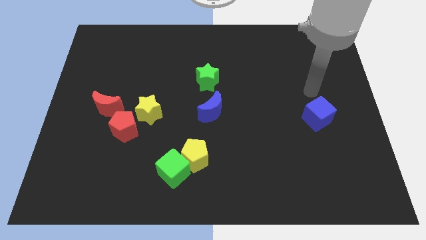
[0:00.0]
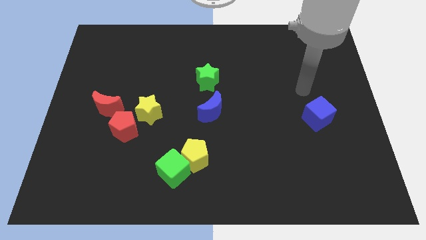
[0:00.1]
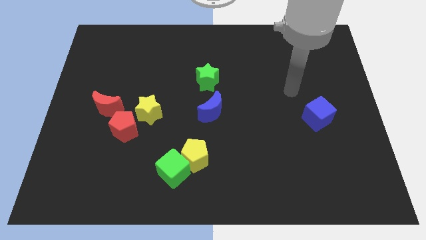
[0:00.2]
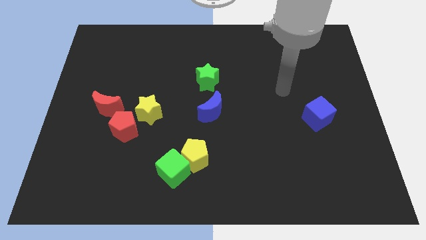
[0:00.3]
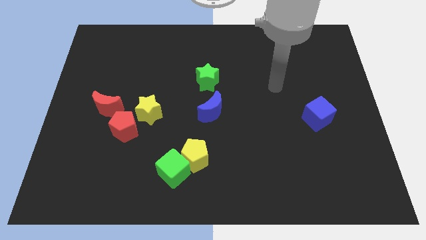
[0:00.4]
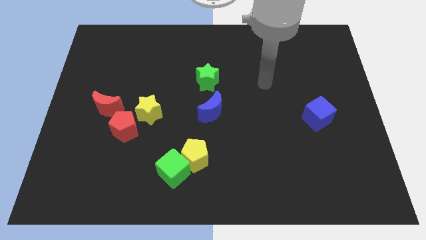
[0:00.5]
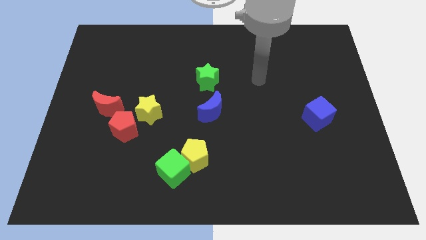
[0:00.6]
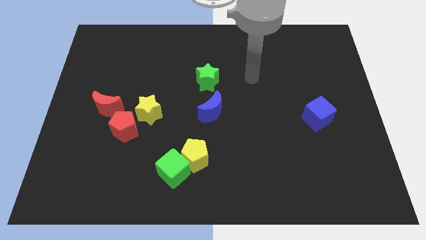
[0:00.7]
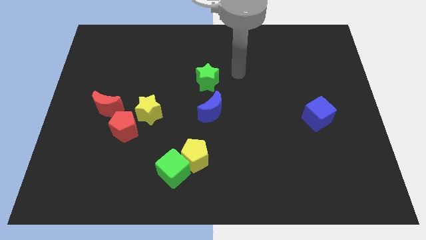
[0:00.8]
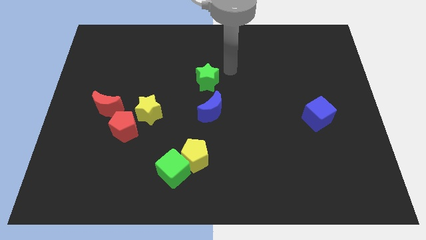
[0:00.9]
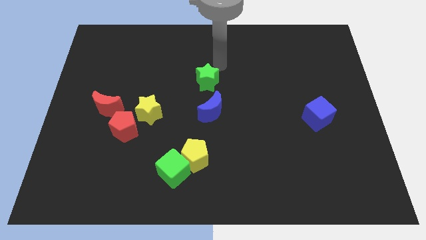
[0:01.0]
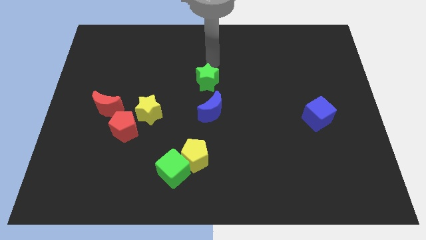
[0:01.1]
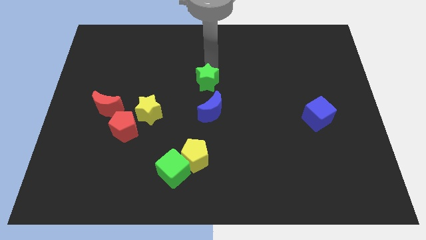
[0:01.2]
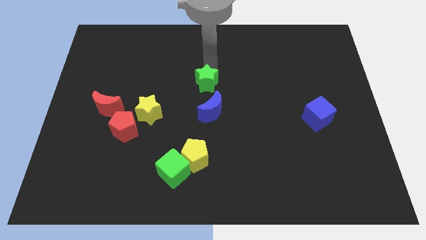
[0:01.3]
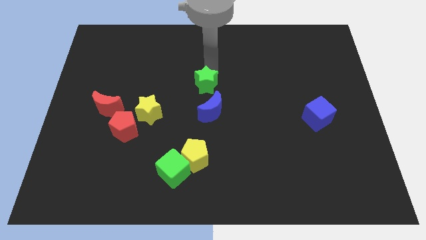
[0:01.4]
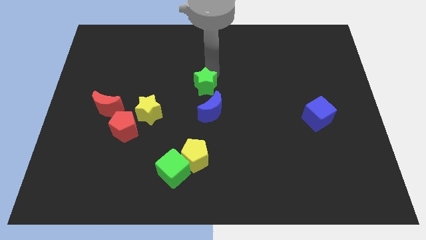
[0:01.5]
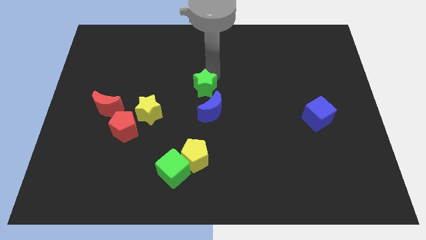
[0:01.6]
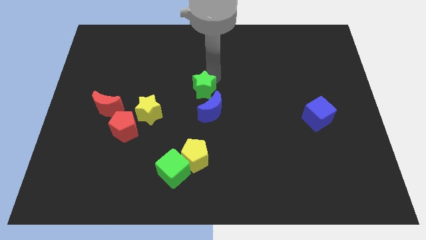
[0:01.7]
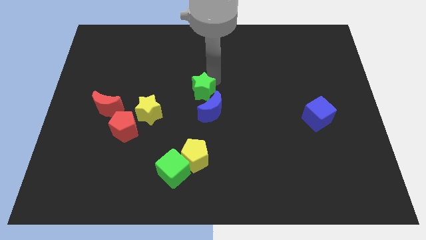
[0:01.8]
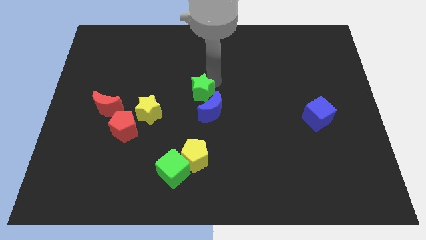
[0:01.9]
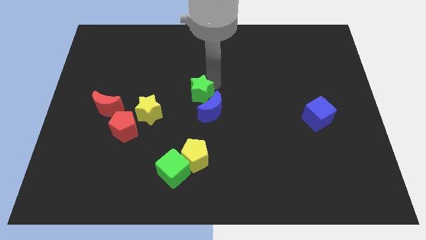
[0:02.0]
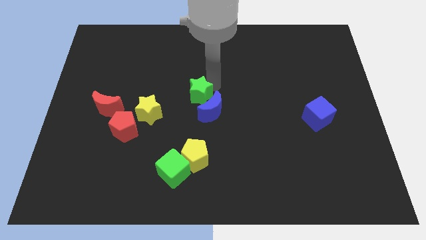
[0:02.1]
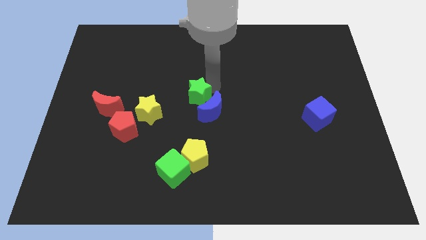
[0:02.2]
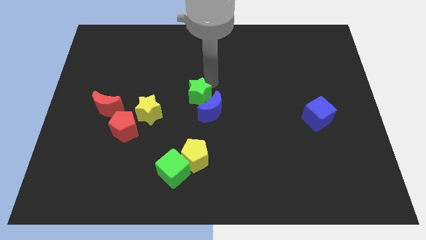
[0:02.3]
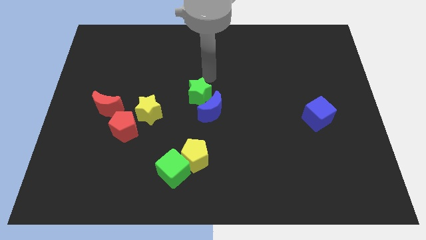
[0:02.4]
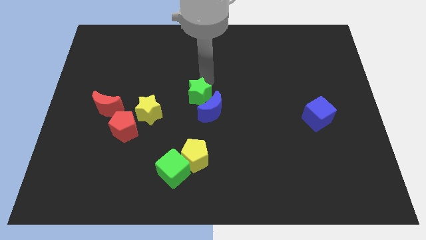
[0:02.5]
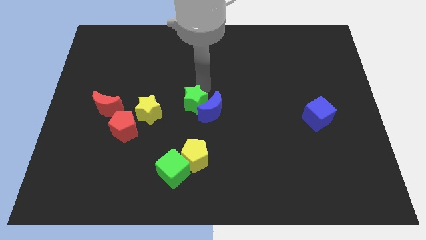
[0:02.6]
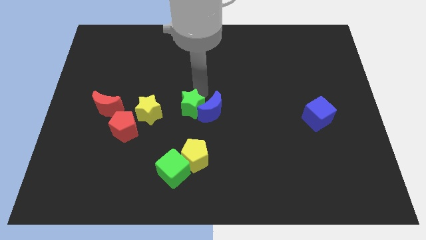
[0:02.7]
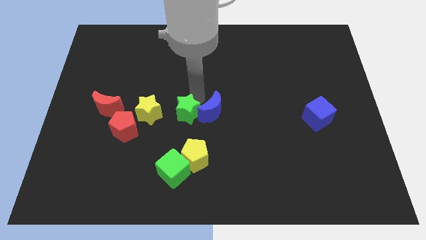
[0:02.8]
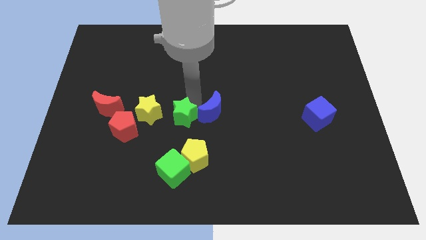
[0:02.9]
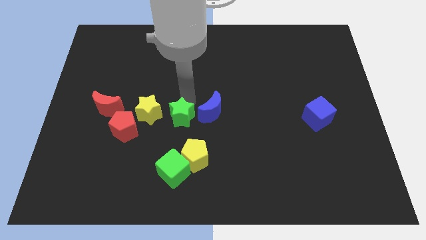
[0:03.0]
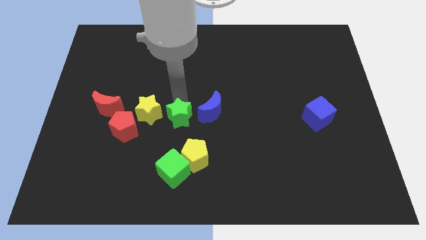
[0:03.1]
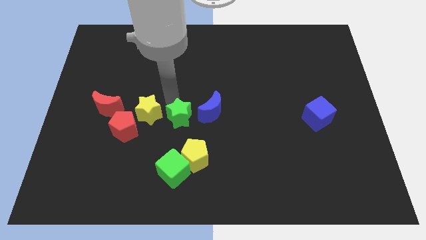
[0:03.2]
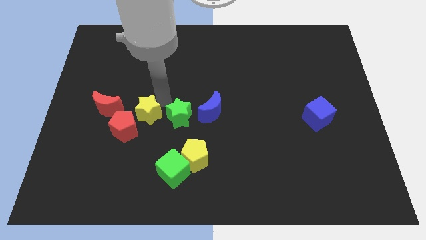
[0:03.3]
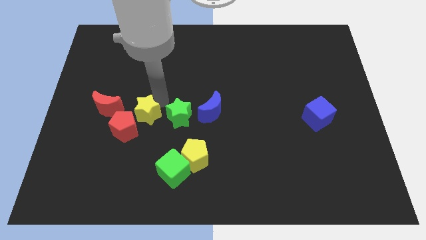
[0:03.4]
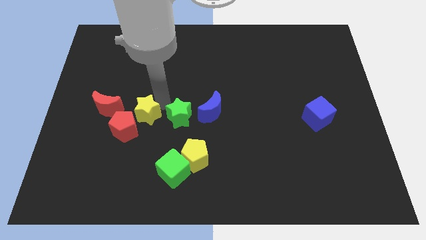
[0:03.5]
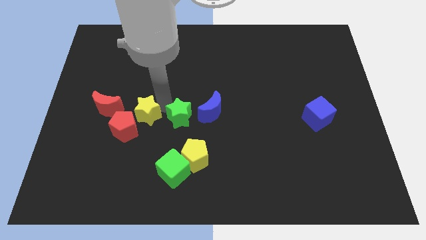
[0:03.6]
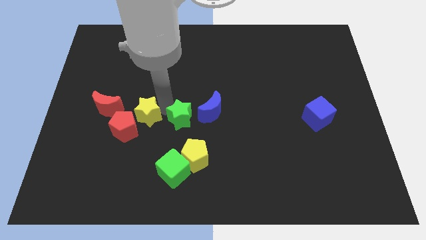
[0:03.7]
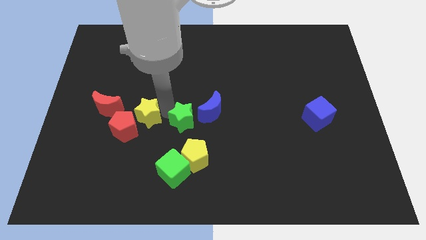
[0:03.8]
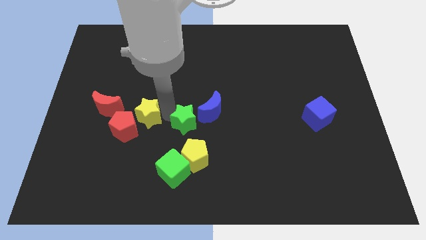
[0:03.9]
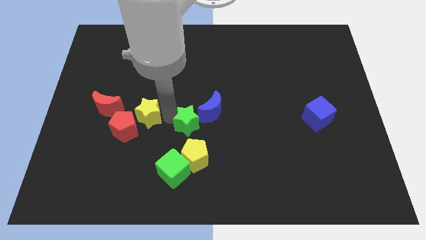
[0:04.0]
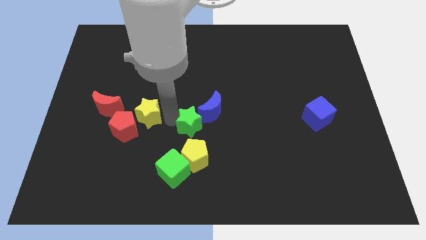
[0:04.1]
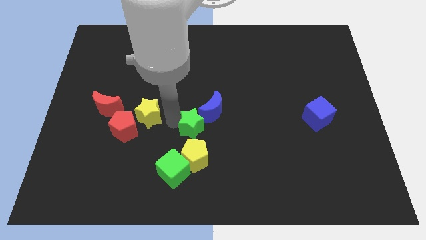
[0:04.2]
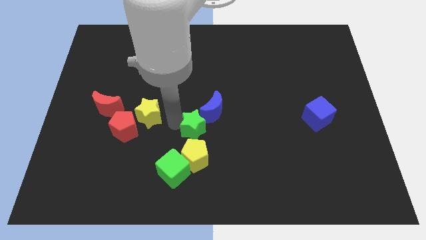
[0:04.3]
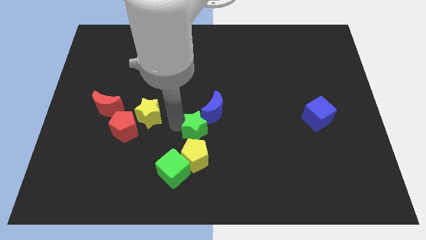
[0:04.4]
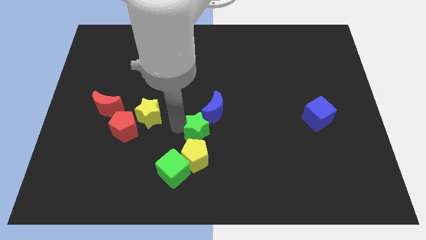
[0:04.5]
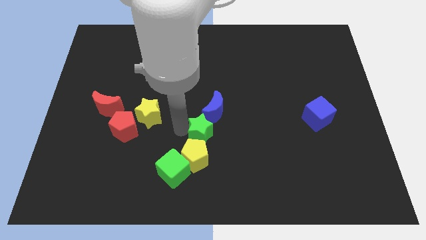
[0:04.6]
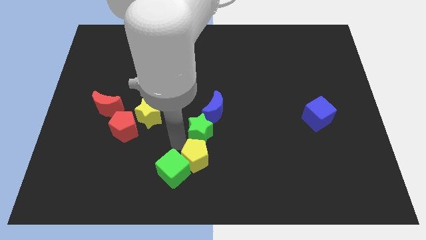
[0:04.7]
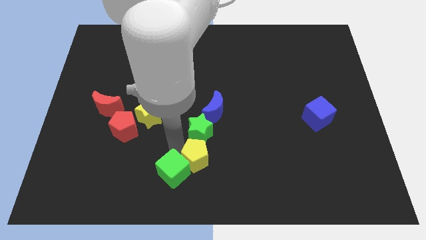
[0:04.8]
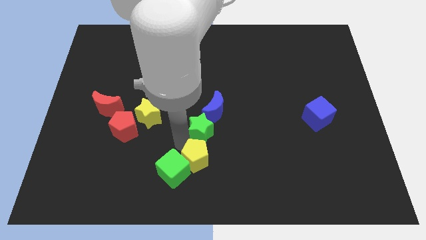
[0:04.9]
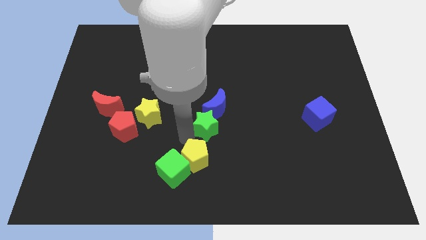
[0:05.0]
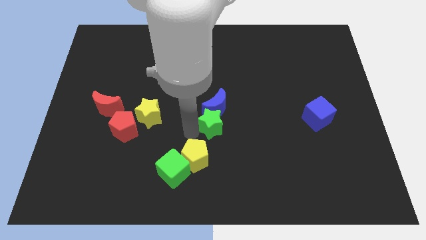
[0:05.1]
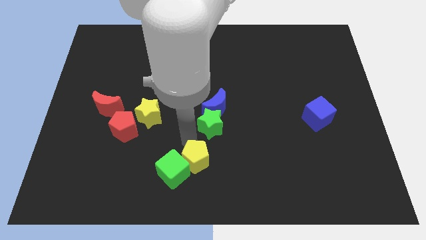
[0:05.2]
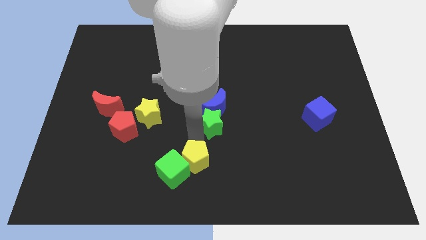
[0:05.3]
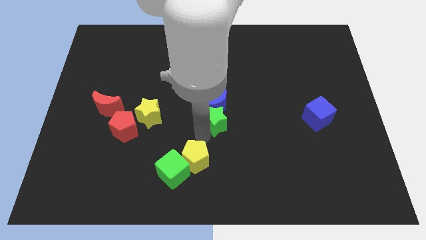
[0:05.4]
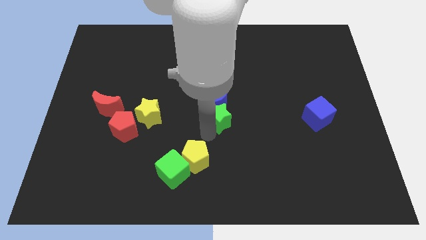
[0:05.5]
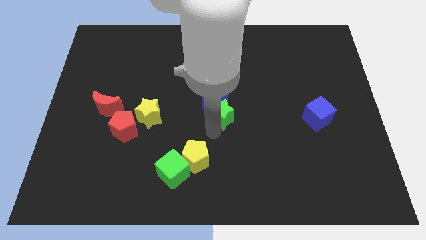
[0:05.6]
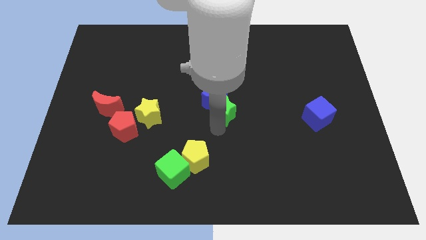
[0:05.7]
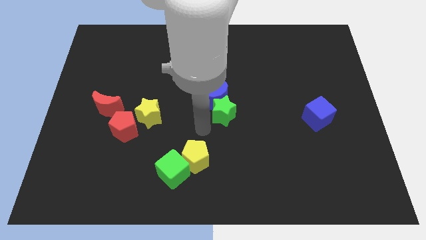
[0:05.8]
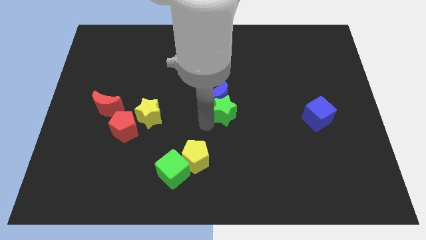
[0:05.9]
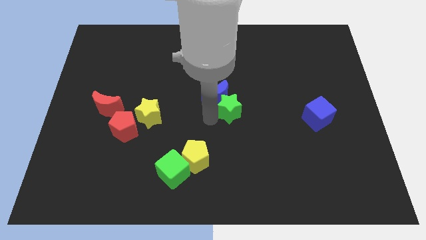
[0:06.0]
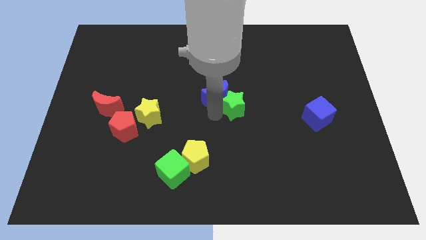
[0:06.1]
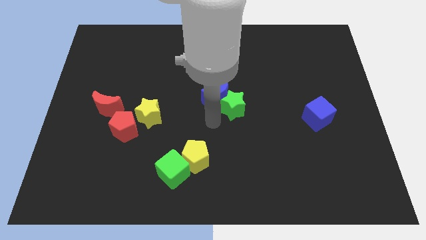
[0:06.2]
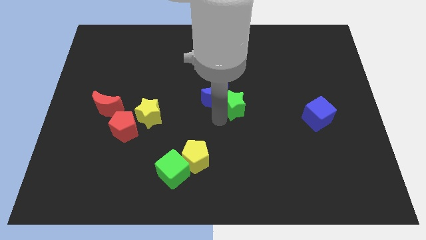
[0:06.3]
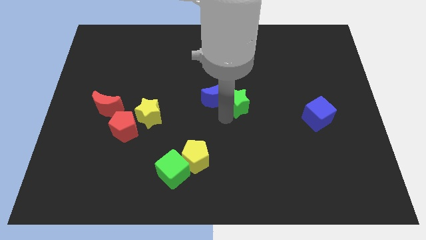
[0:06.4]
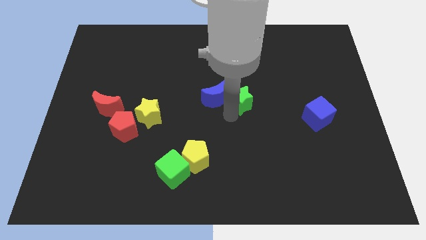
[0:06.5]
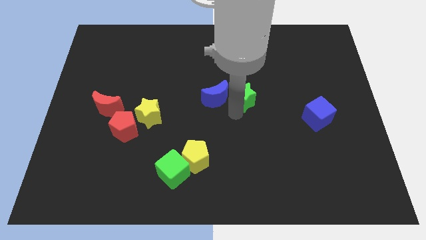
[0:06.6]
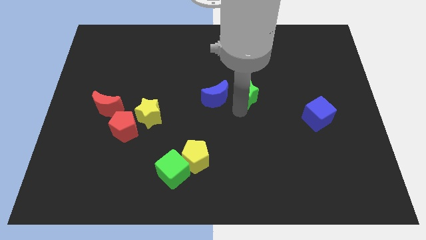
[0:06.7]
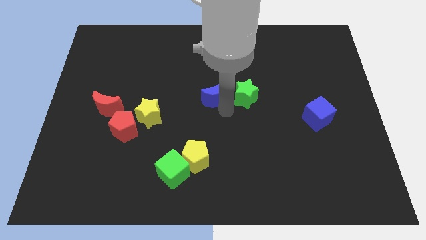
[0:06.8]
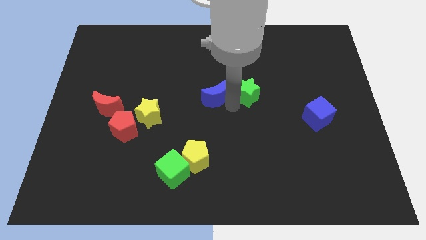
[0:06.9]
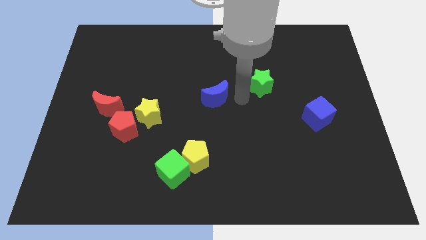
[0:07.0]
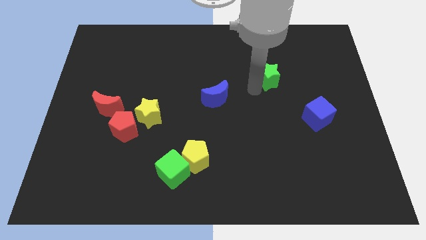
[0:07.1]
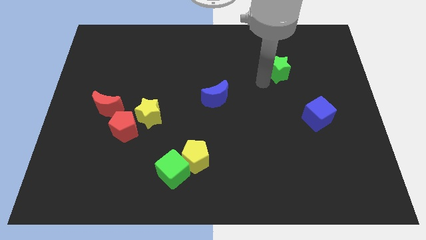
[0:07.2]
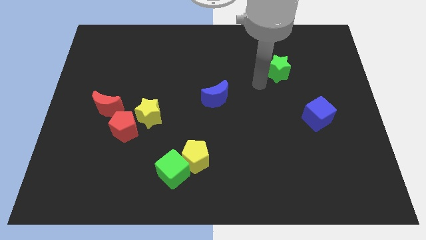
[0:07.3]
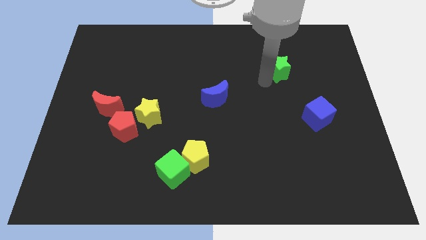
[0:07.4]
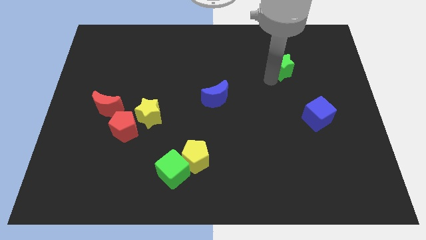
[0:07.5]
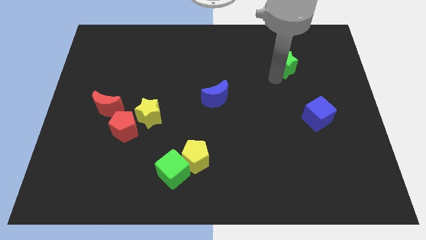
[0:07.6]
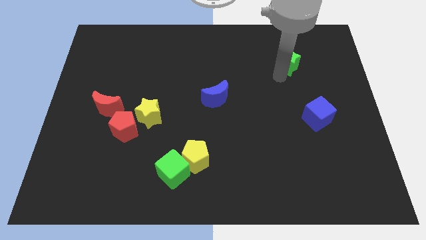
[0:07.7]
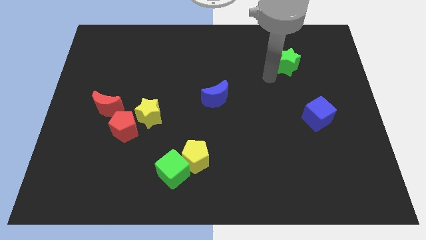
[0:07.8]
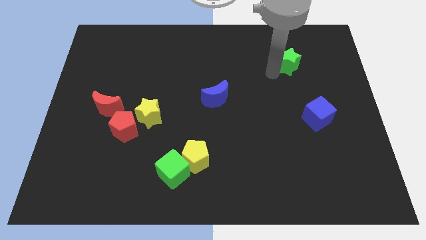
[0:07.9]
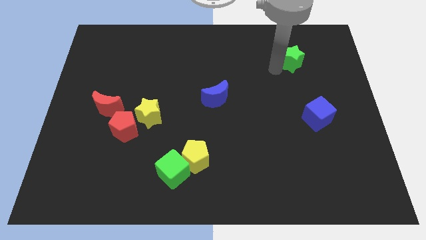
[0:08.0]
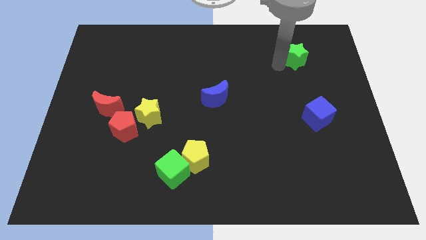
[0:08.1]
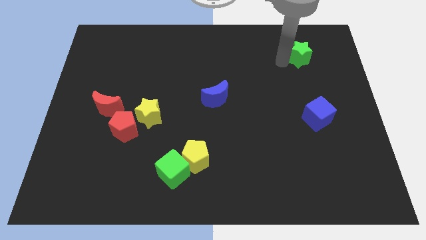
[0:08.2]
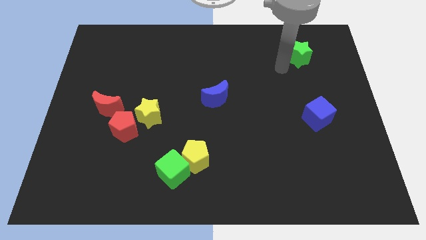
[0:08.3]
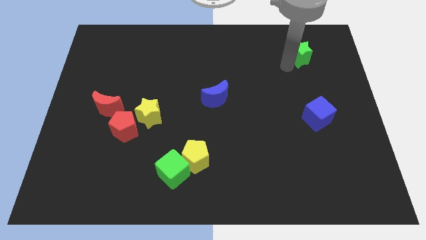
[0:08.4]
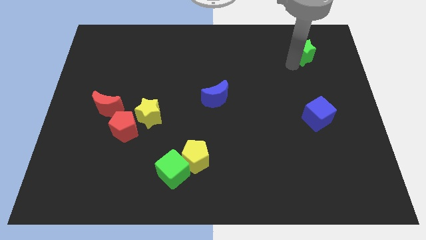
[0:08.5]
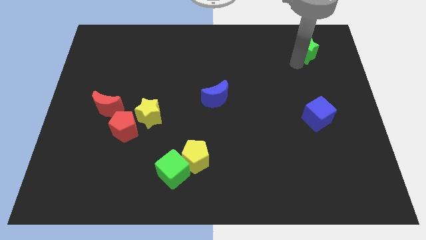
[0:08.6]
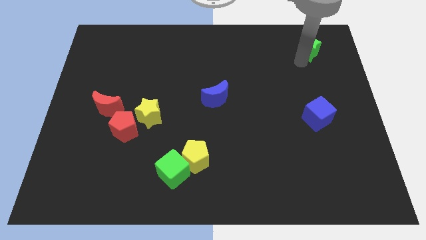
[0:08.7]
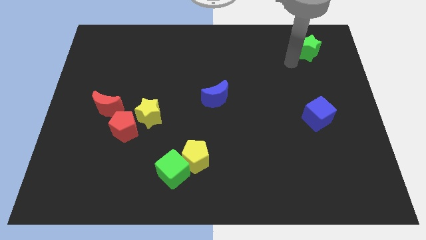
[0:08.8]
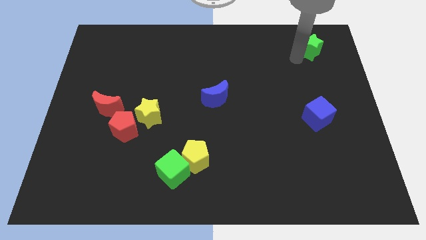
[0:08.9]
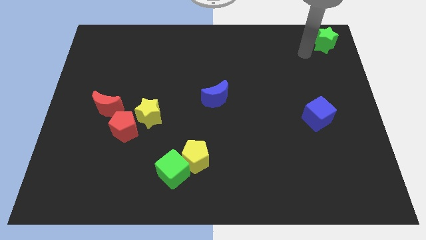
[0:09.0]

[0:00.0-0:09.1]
put the green star to the top right
